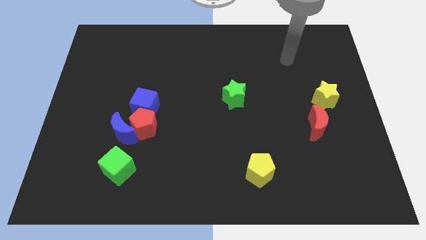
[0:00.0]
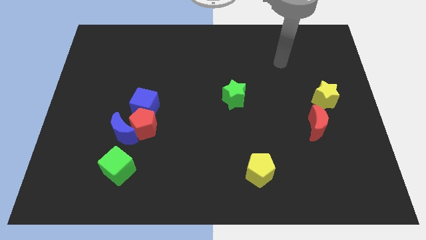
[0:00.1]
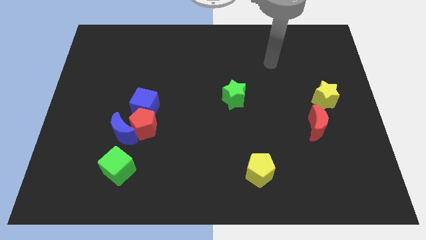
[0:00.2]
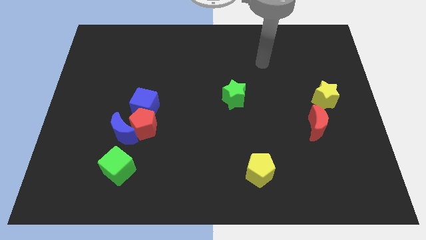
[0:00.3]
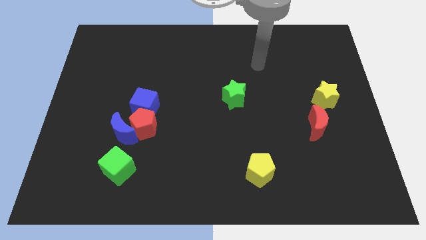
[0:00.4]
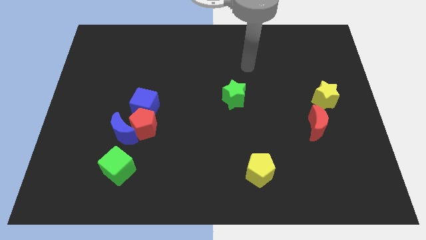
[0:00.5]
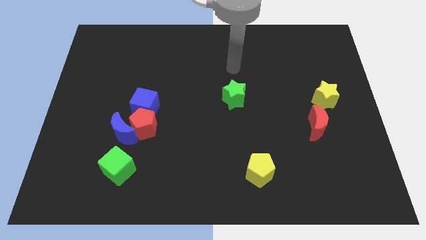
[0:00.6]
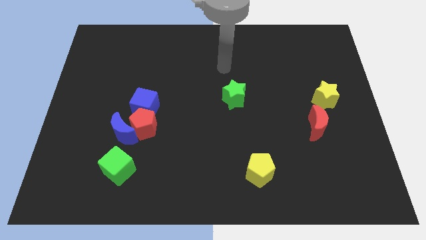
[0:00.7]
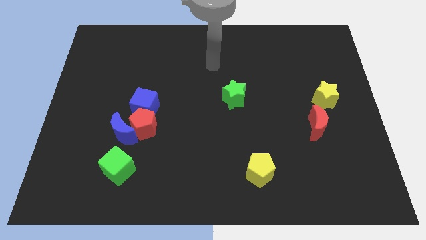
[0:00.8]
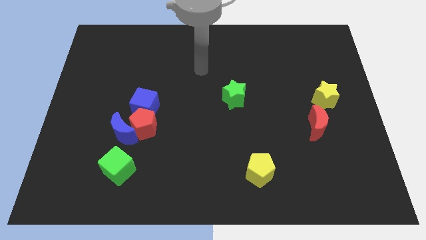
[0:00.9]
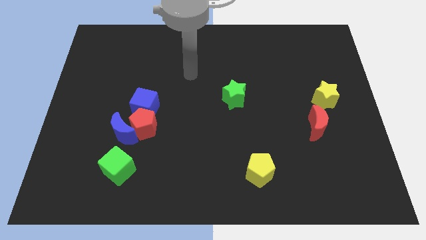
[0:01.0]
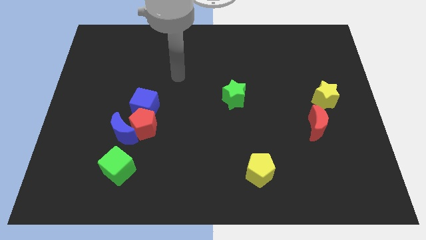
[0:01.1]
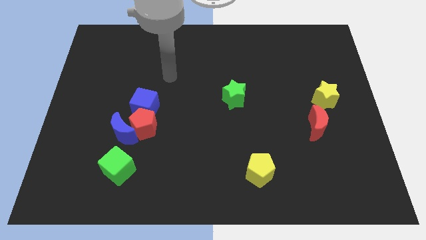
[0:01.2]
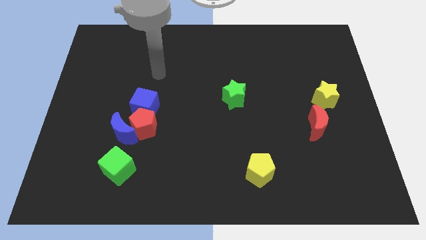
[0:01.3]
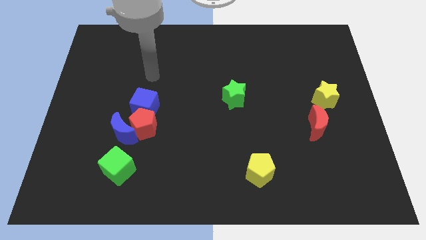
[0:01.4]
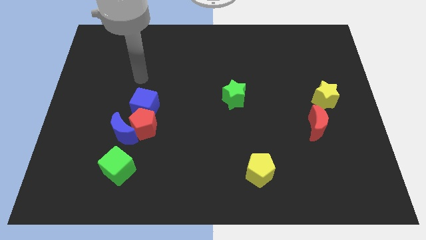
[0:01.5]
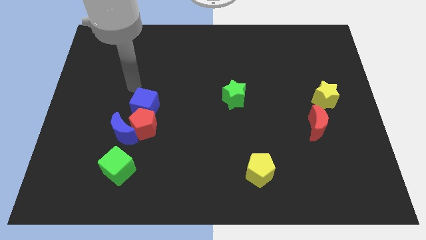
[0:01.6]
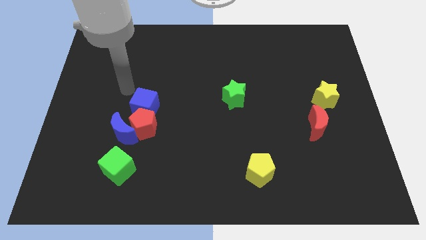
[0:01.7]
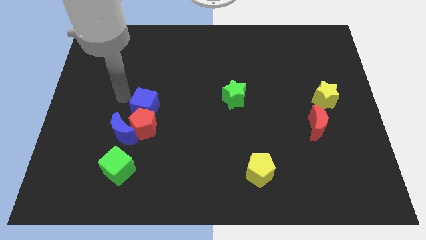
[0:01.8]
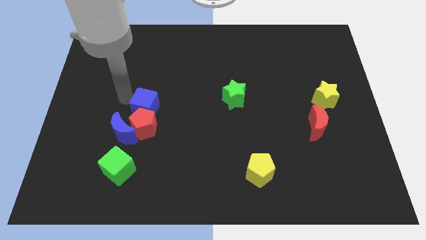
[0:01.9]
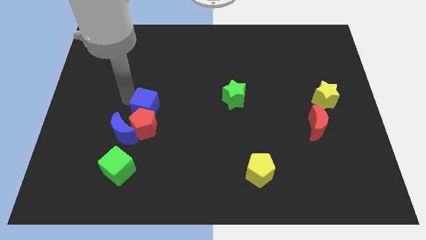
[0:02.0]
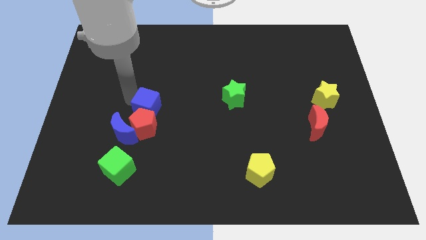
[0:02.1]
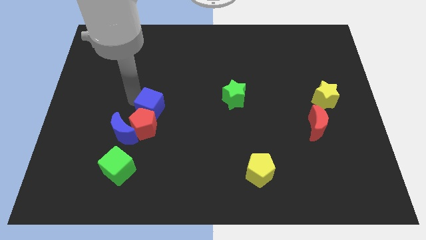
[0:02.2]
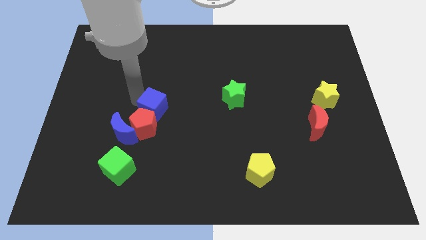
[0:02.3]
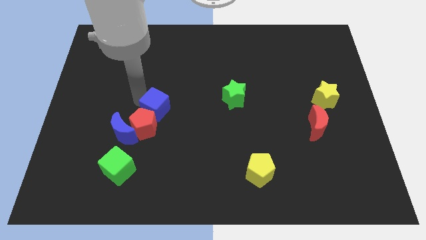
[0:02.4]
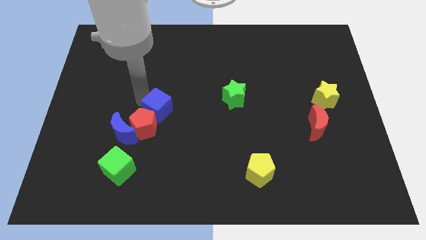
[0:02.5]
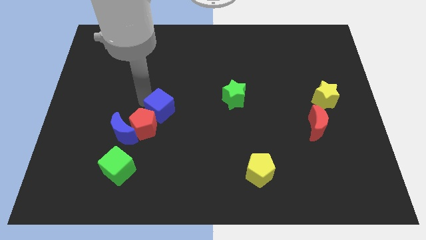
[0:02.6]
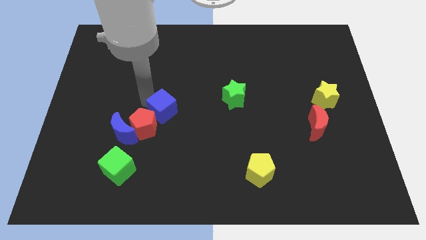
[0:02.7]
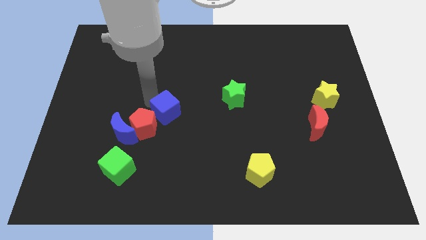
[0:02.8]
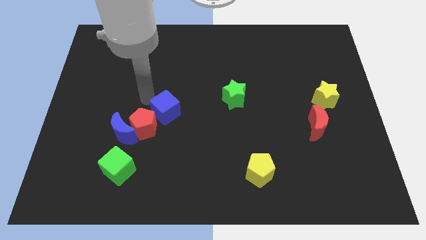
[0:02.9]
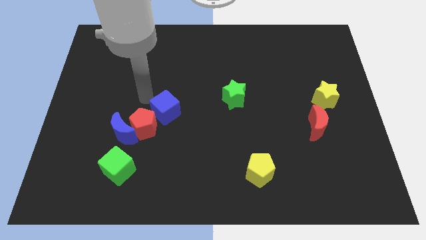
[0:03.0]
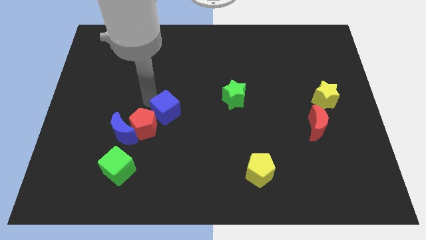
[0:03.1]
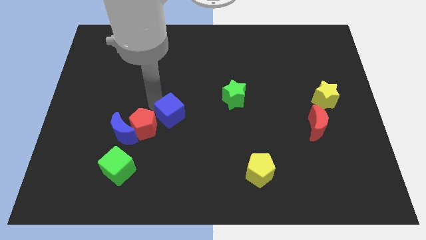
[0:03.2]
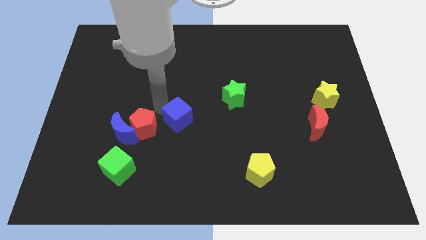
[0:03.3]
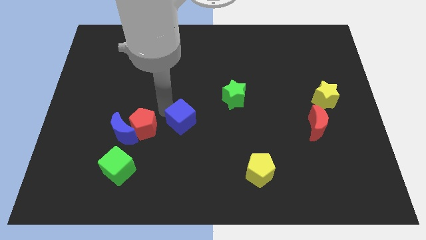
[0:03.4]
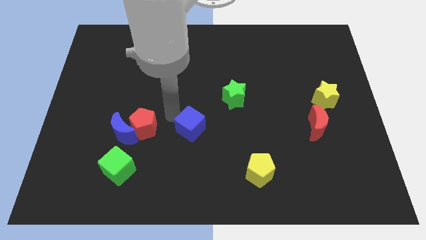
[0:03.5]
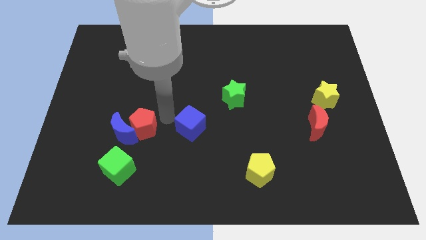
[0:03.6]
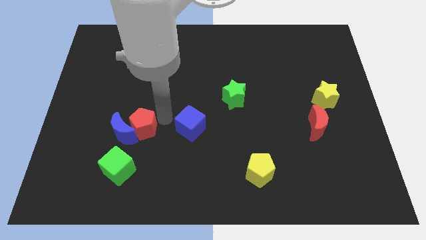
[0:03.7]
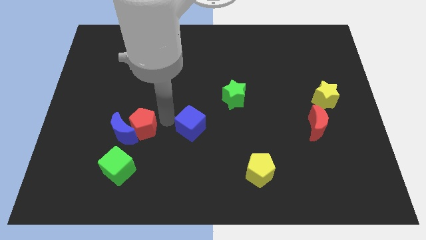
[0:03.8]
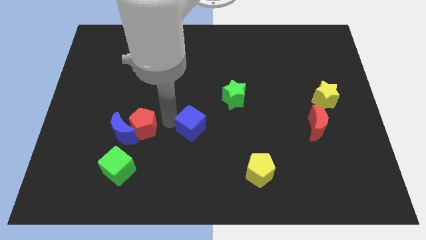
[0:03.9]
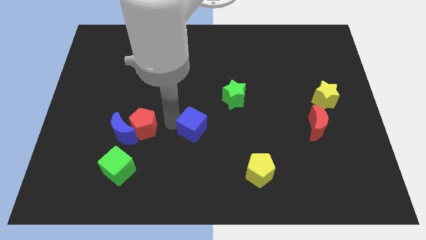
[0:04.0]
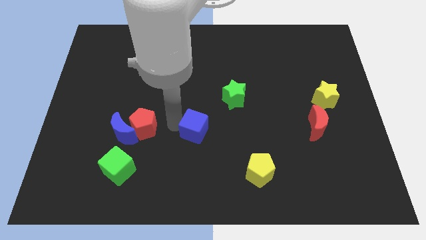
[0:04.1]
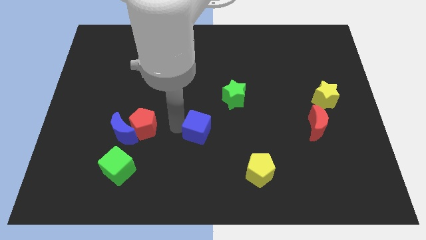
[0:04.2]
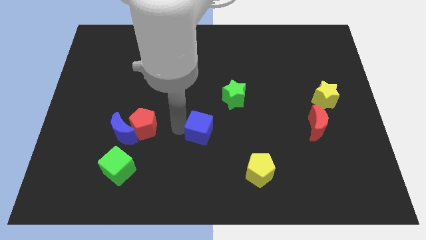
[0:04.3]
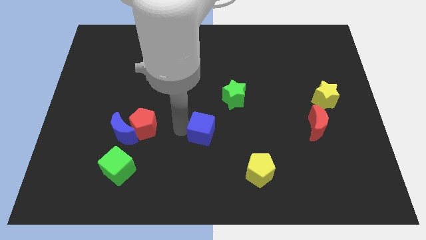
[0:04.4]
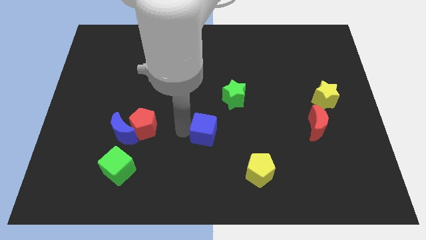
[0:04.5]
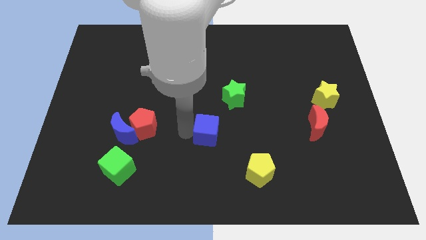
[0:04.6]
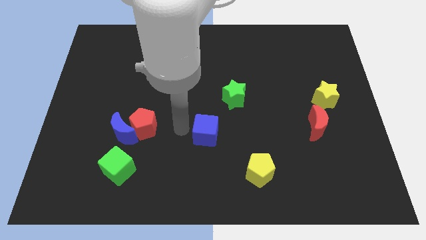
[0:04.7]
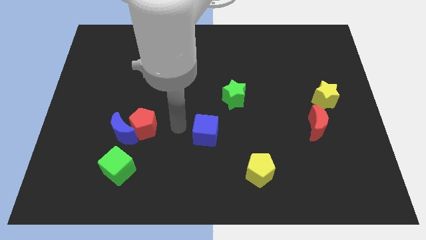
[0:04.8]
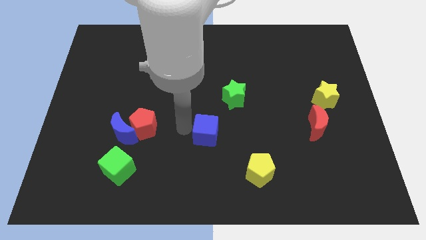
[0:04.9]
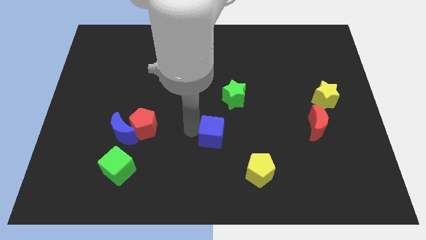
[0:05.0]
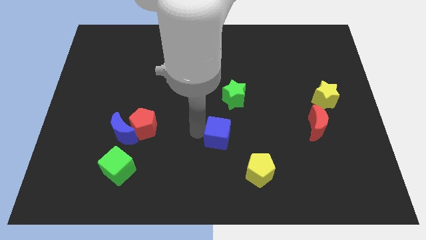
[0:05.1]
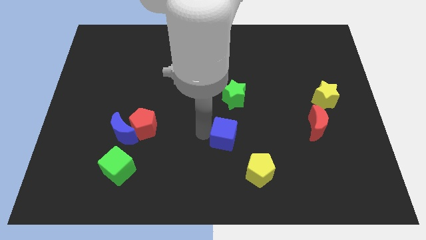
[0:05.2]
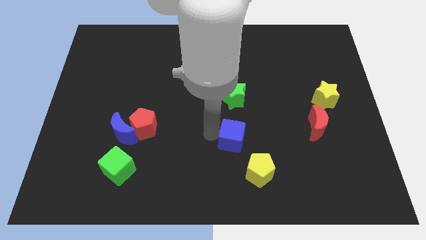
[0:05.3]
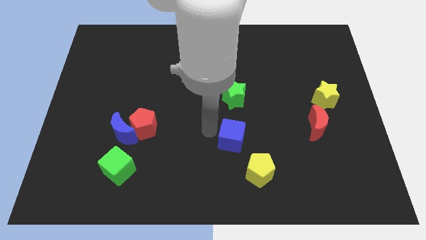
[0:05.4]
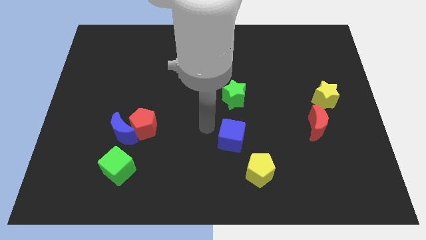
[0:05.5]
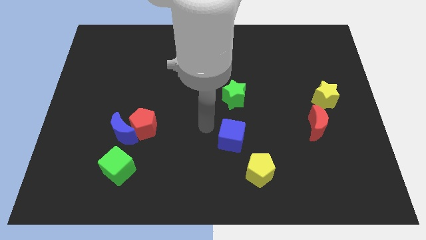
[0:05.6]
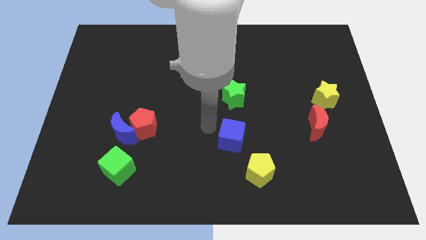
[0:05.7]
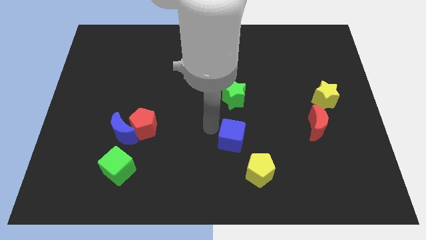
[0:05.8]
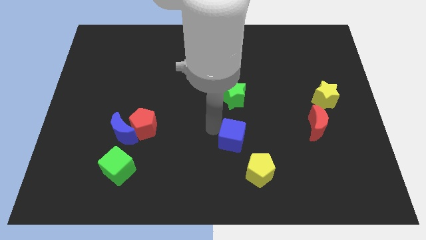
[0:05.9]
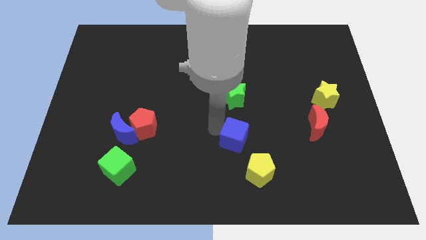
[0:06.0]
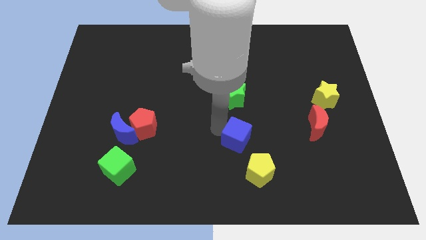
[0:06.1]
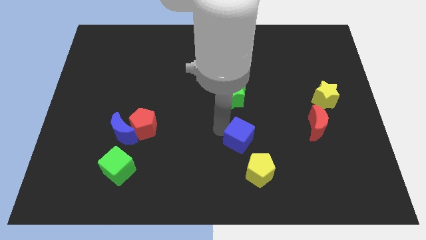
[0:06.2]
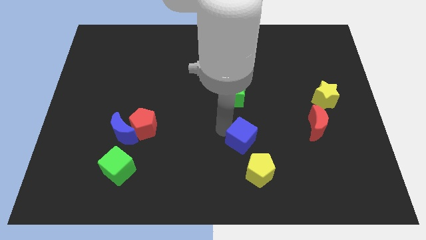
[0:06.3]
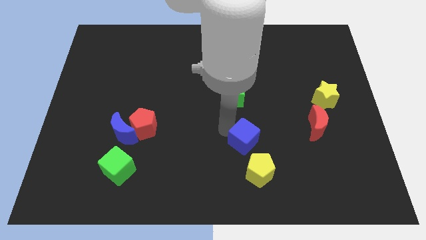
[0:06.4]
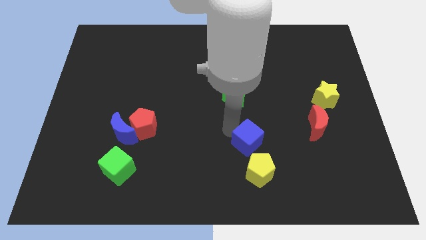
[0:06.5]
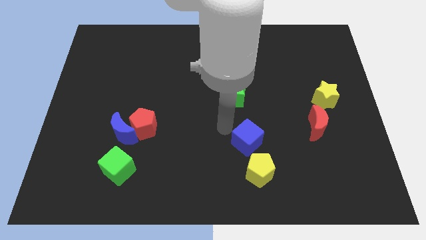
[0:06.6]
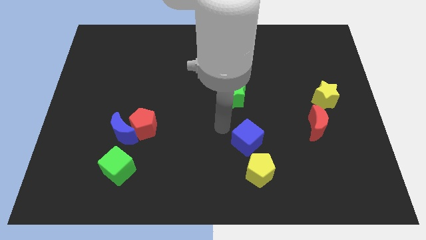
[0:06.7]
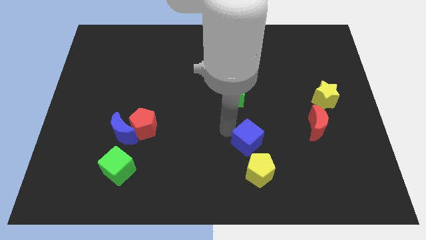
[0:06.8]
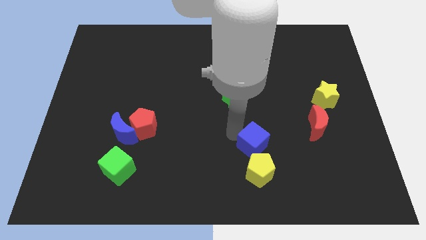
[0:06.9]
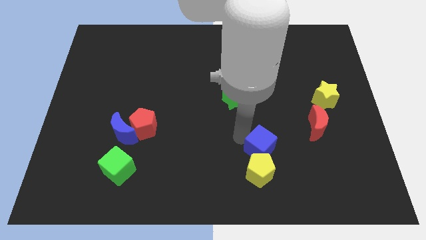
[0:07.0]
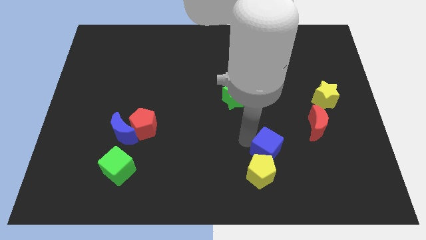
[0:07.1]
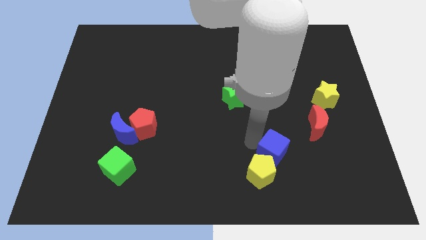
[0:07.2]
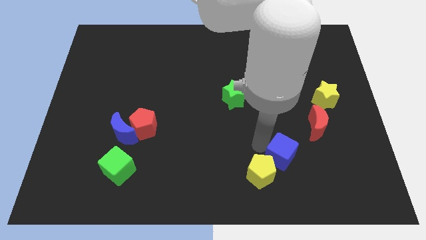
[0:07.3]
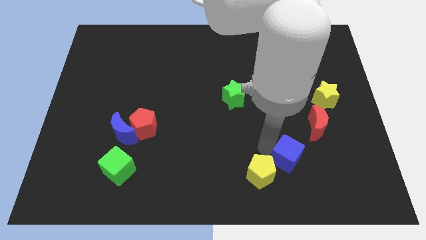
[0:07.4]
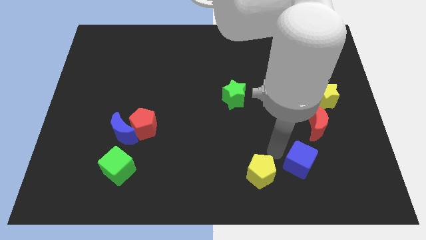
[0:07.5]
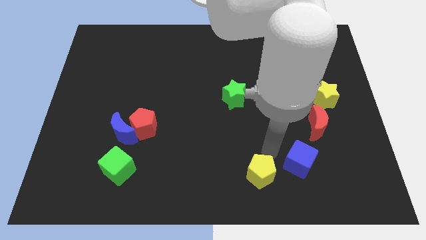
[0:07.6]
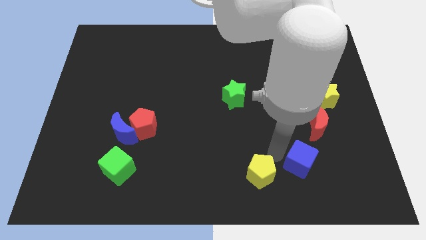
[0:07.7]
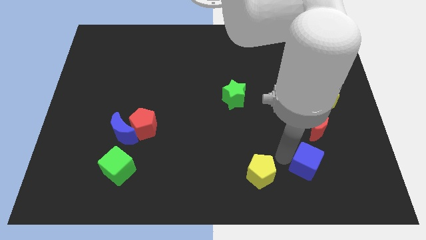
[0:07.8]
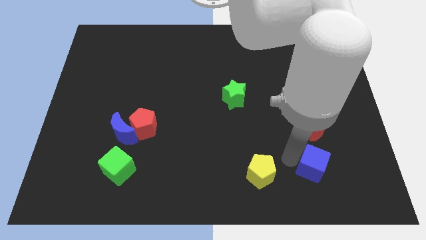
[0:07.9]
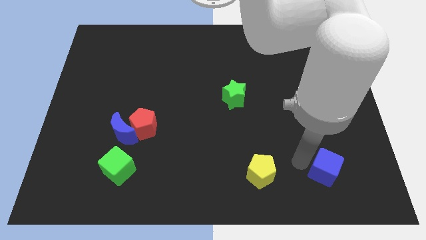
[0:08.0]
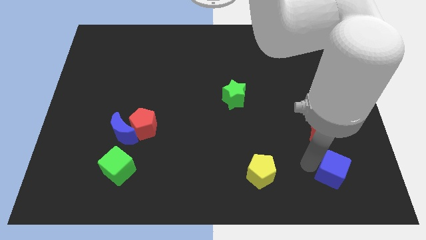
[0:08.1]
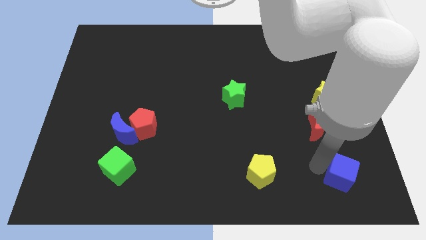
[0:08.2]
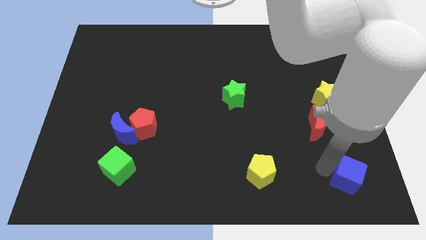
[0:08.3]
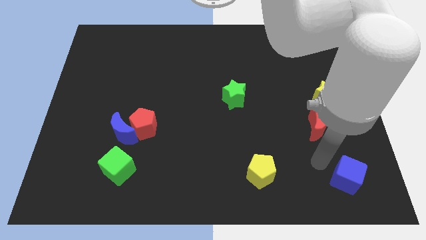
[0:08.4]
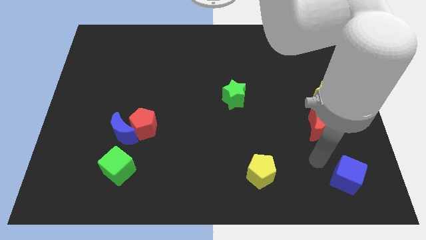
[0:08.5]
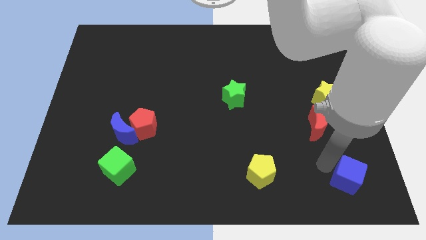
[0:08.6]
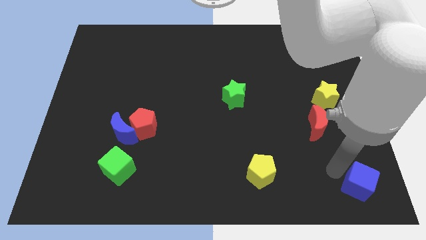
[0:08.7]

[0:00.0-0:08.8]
push the blue cube to the lower right corner
